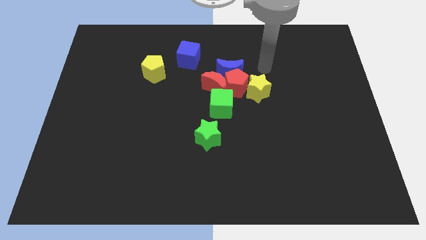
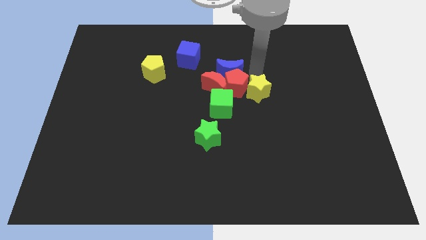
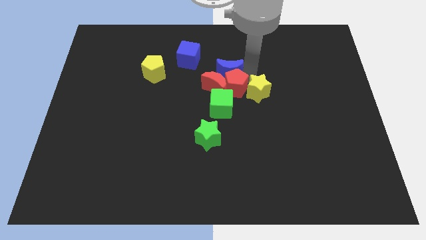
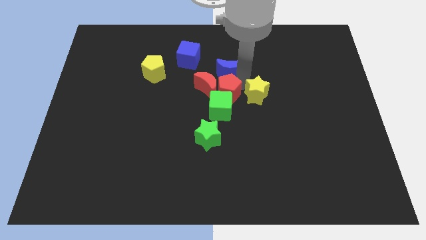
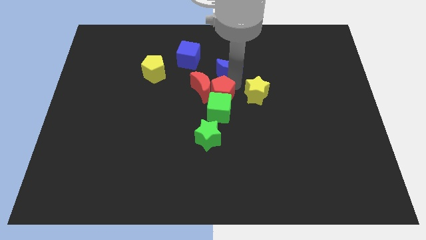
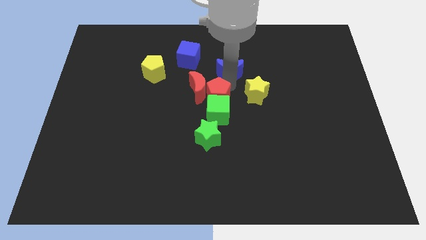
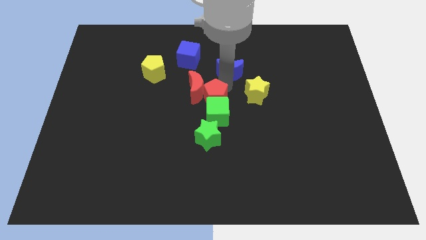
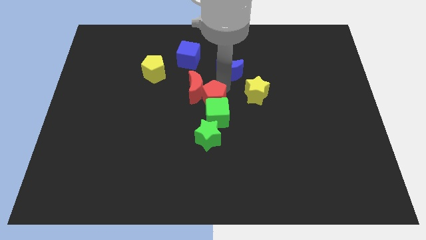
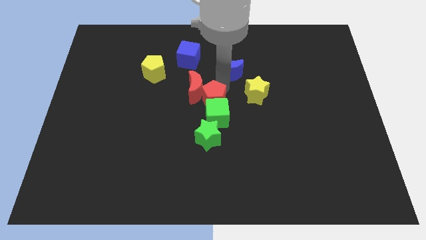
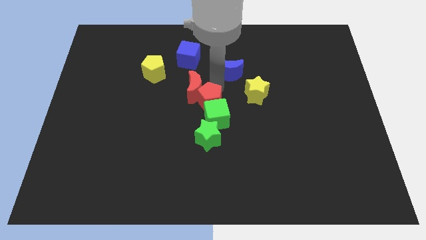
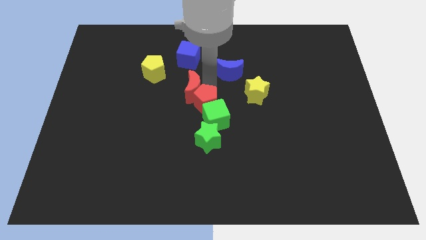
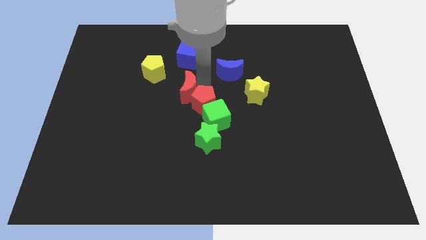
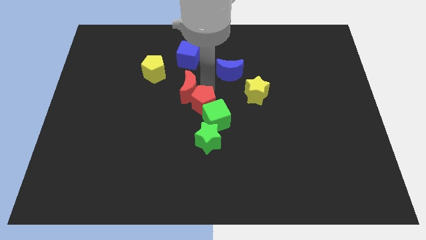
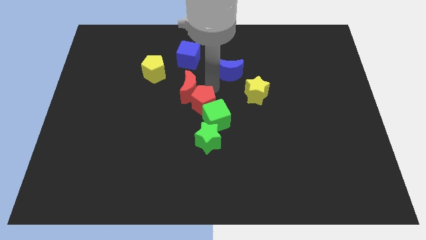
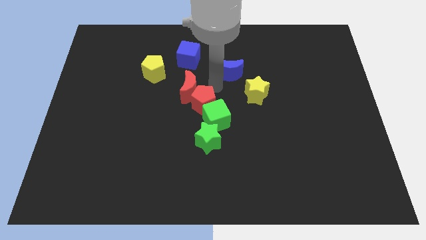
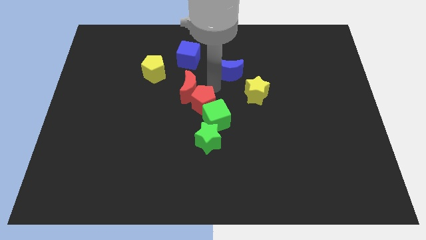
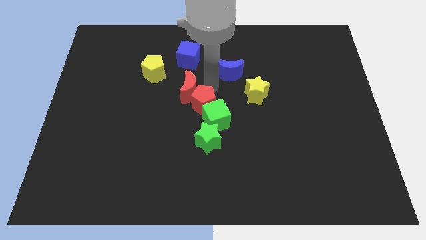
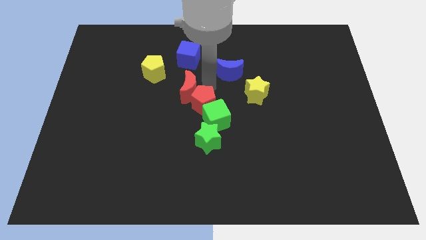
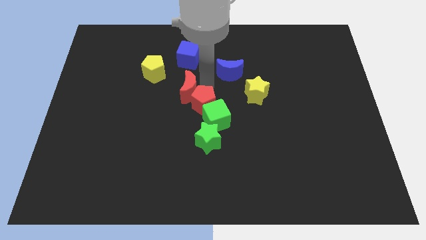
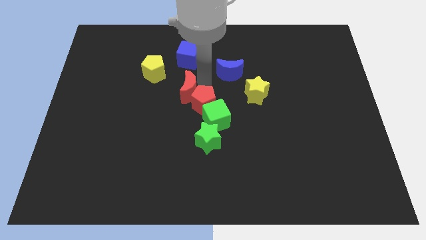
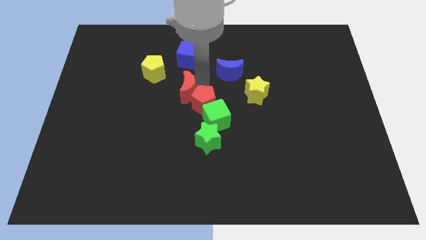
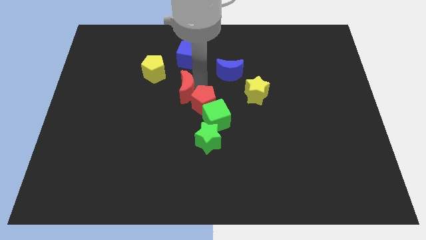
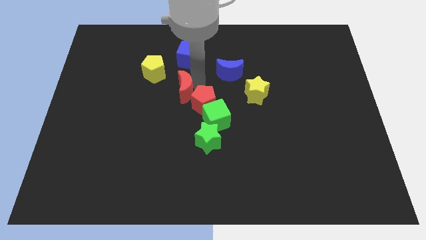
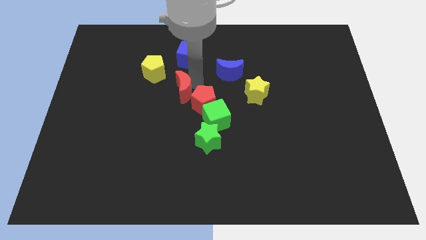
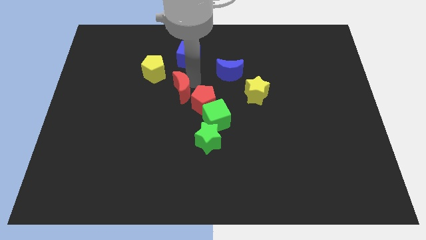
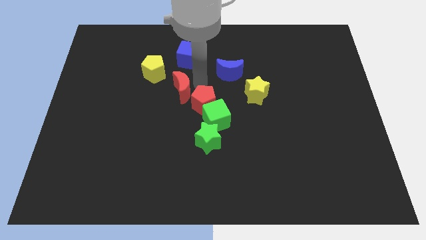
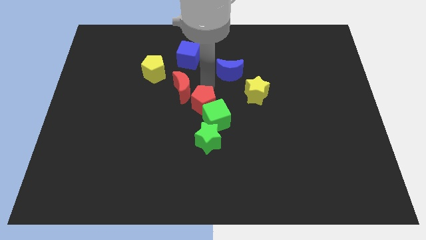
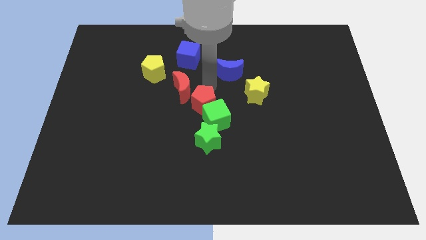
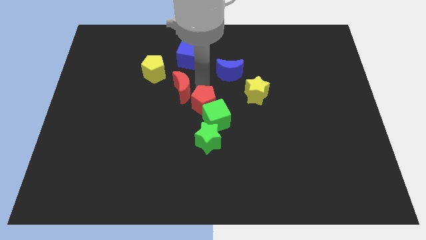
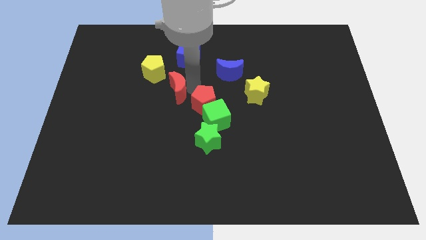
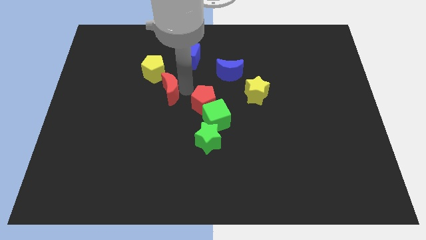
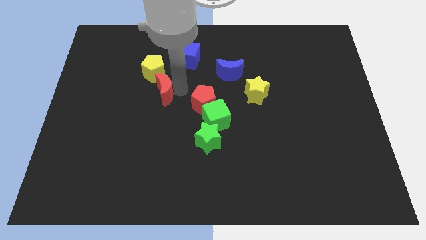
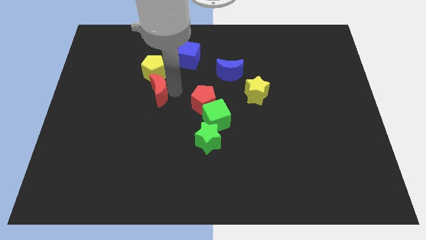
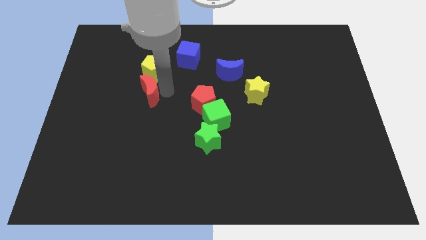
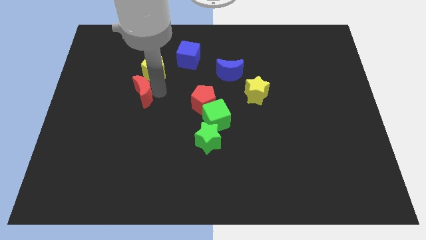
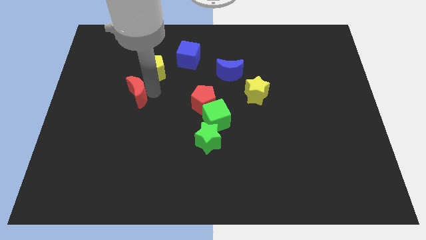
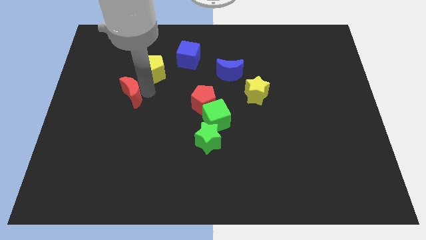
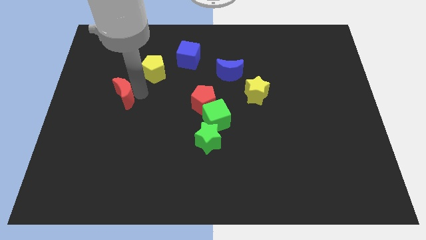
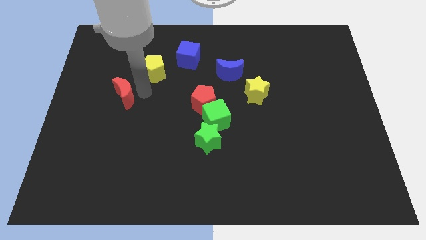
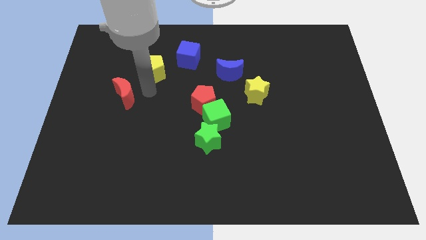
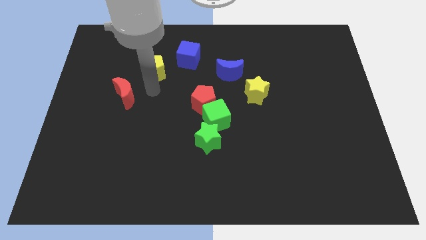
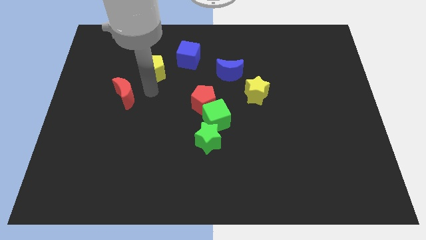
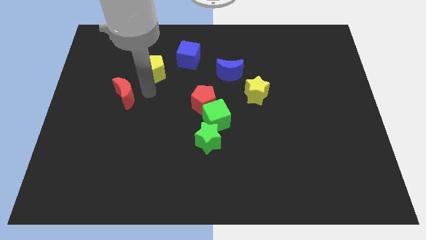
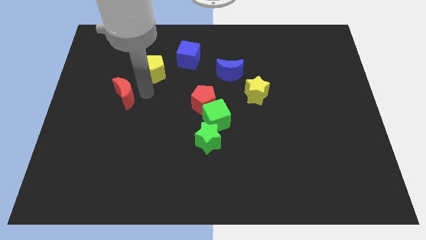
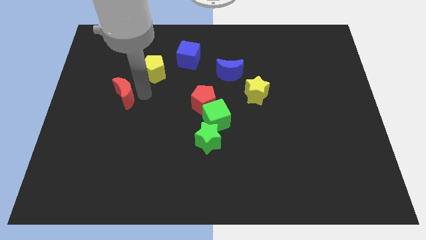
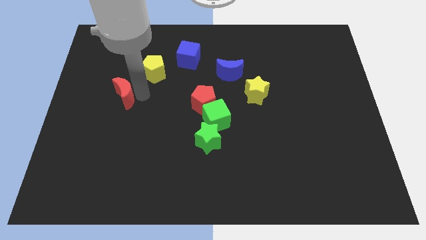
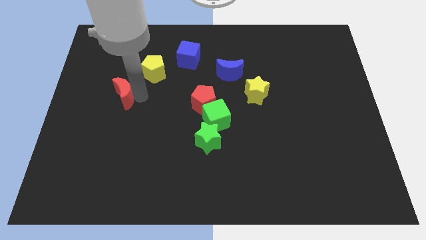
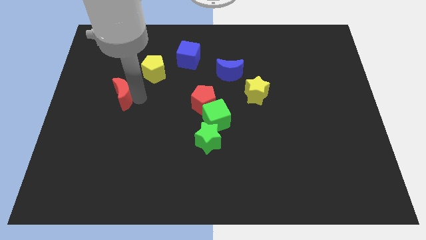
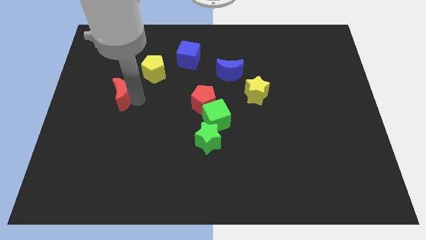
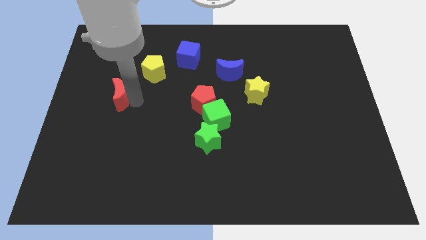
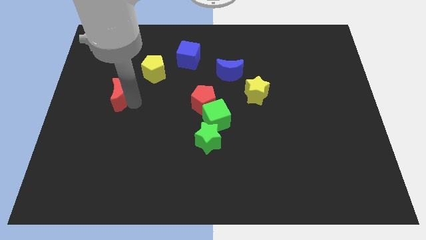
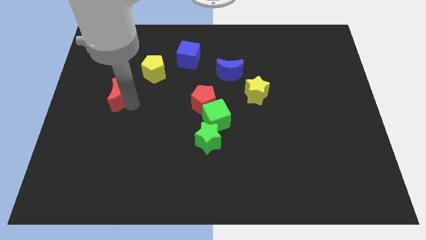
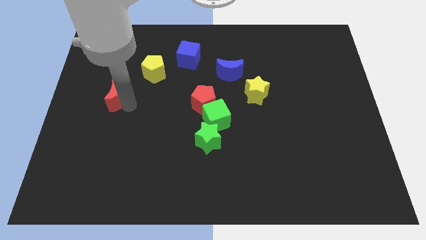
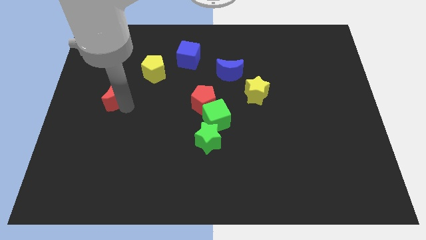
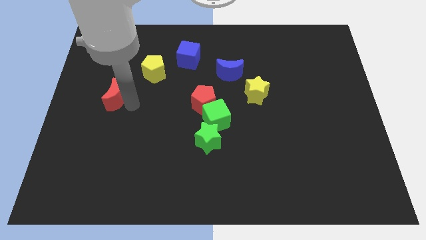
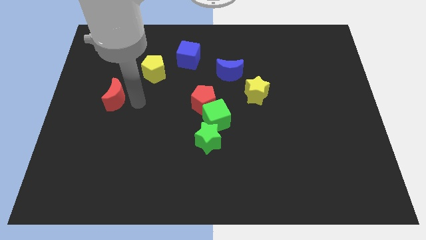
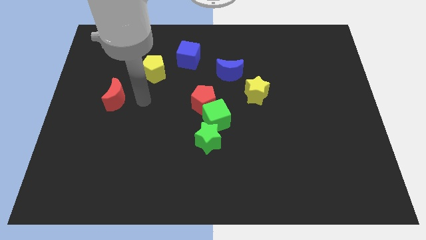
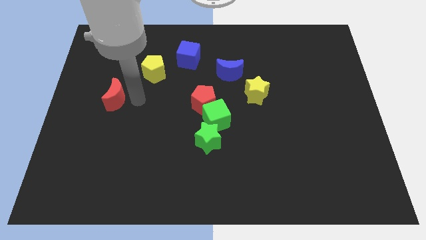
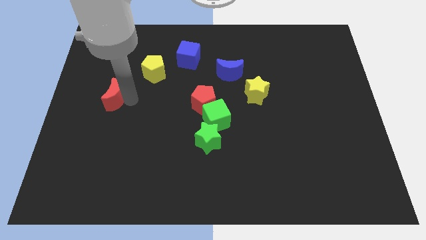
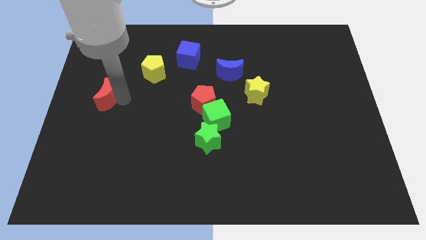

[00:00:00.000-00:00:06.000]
put the red moon to the center left
